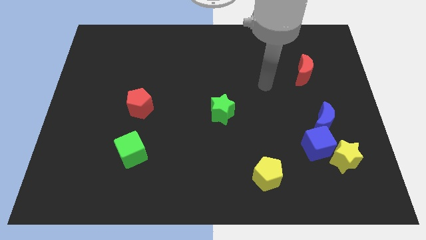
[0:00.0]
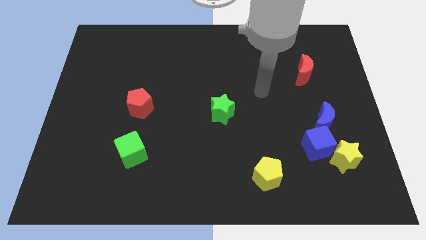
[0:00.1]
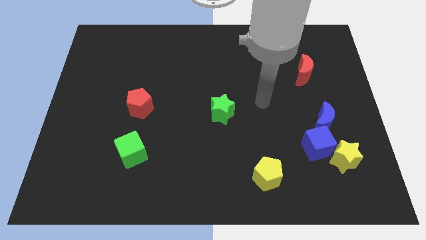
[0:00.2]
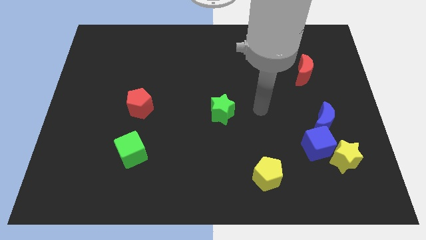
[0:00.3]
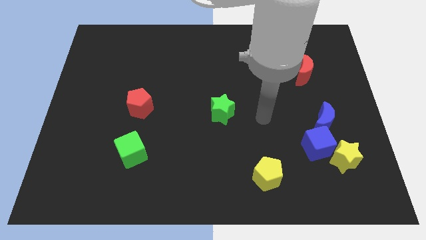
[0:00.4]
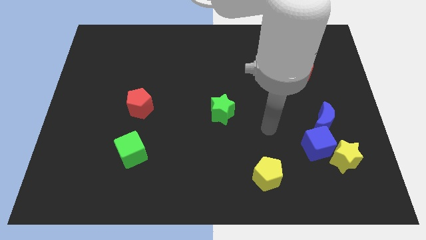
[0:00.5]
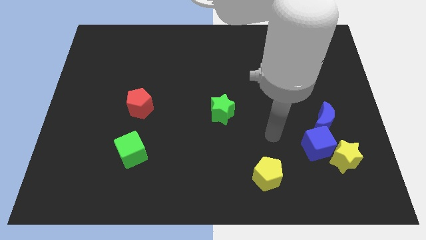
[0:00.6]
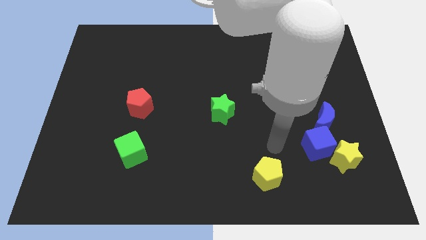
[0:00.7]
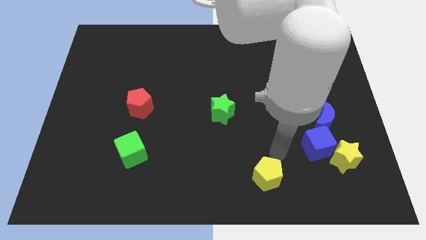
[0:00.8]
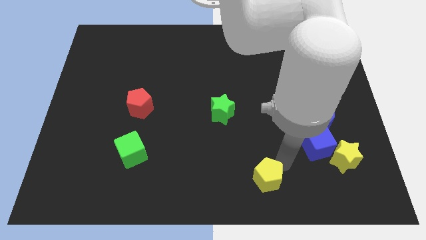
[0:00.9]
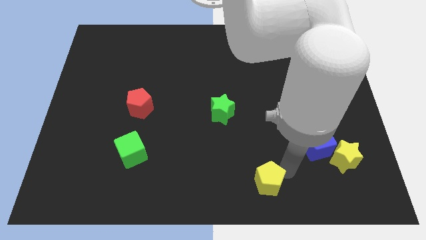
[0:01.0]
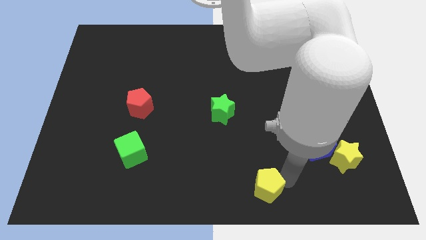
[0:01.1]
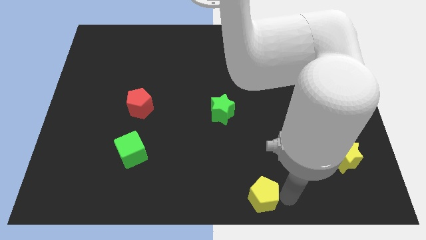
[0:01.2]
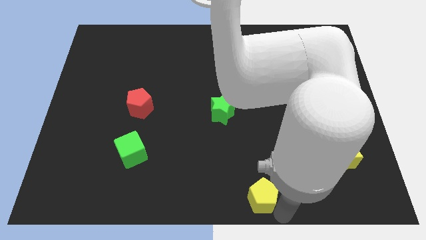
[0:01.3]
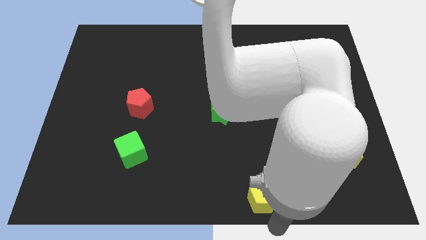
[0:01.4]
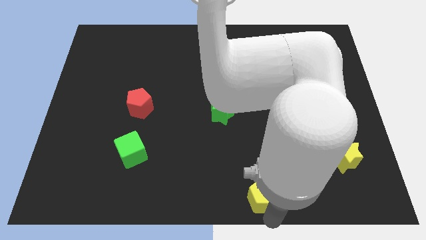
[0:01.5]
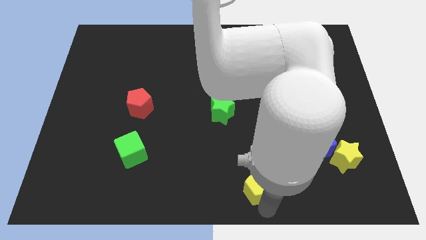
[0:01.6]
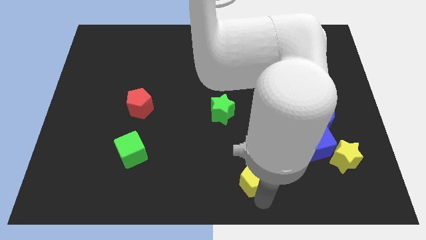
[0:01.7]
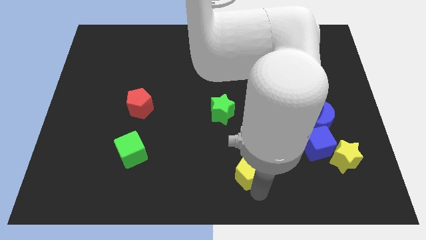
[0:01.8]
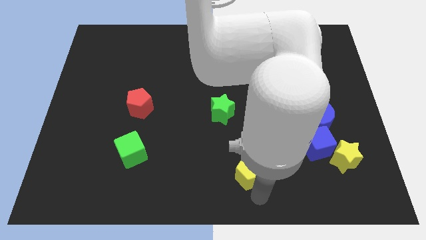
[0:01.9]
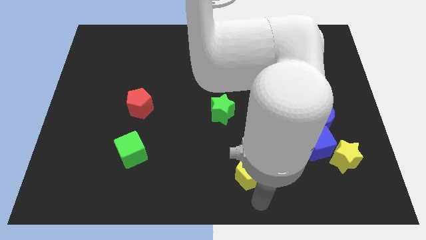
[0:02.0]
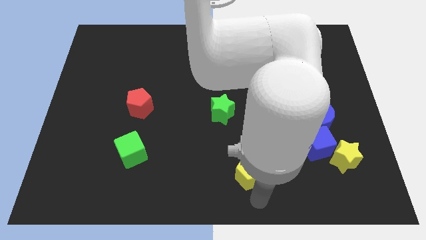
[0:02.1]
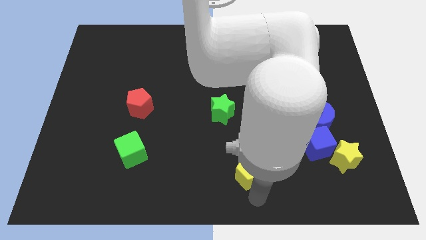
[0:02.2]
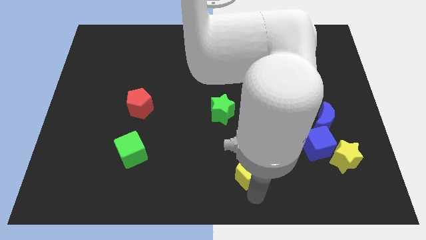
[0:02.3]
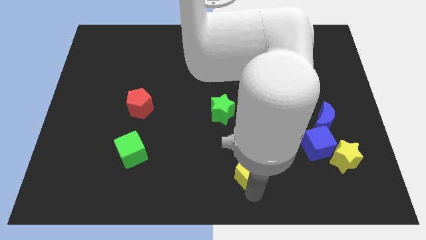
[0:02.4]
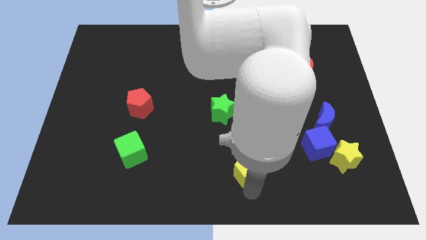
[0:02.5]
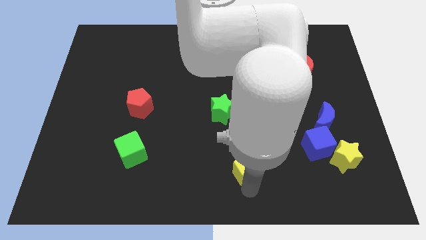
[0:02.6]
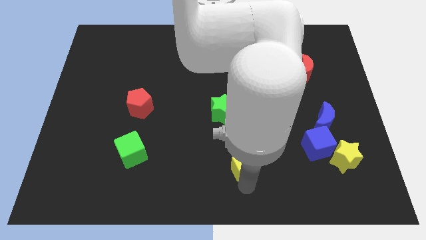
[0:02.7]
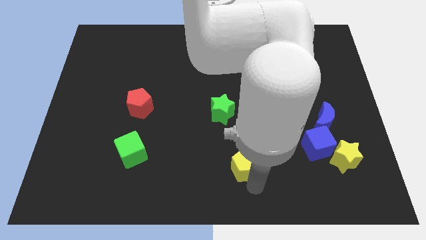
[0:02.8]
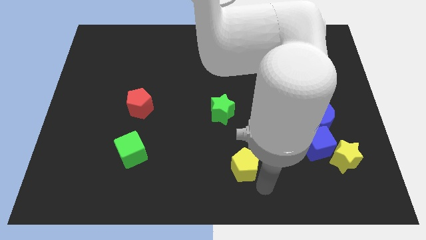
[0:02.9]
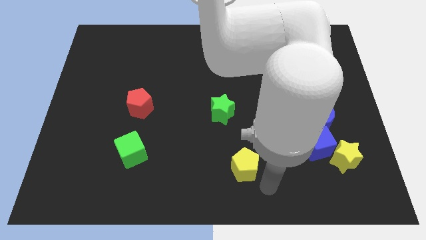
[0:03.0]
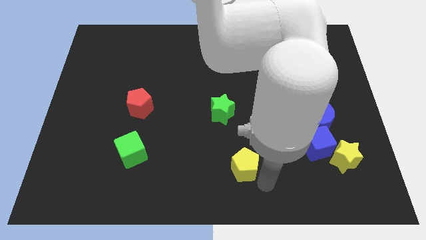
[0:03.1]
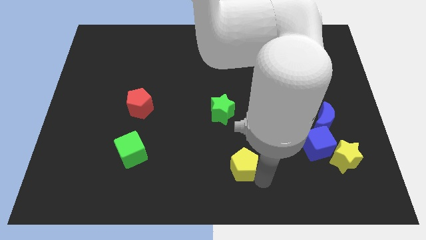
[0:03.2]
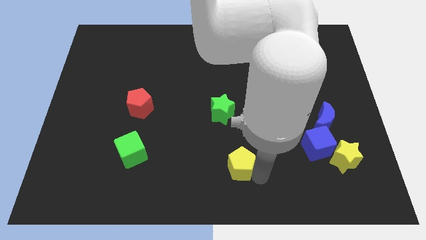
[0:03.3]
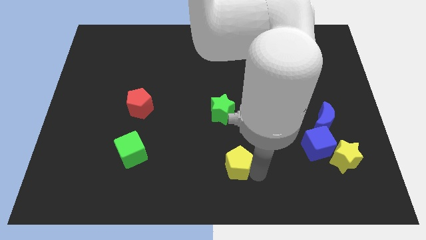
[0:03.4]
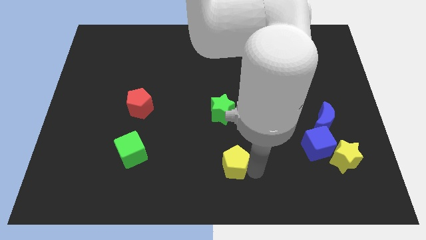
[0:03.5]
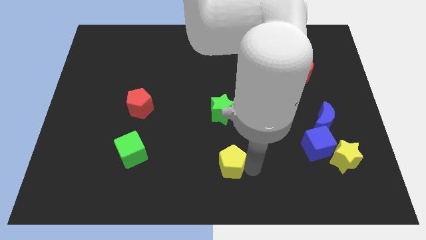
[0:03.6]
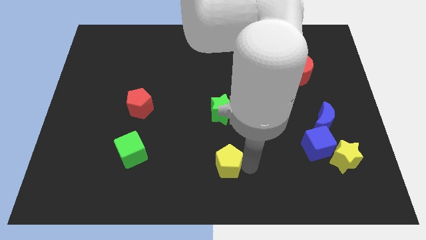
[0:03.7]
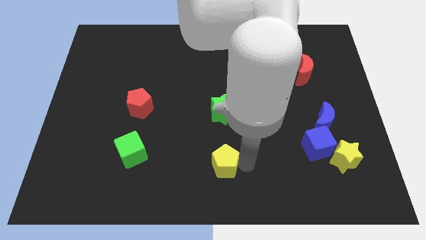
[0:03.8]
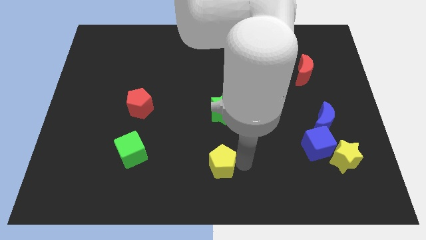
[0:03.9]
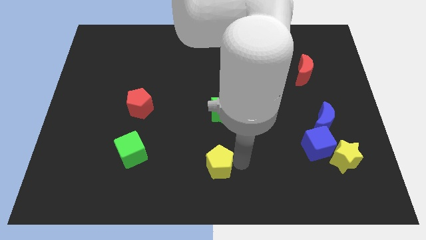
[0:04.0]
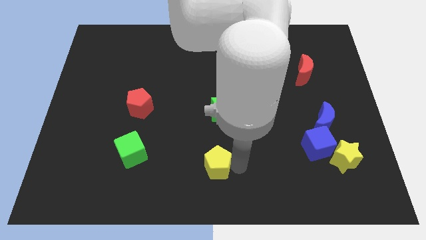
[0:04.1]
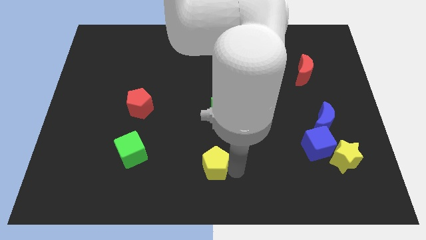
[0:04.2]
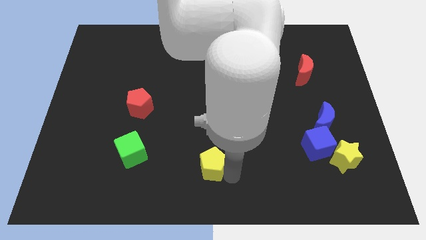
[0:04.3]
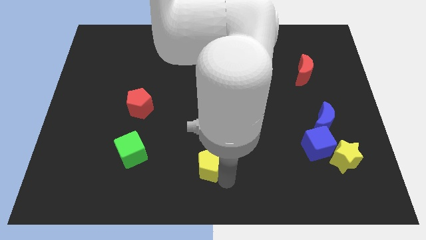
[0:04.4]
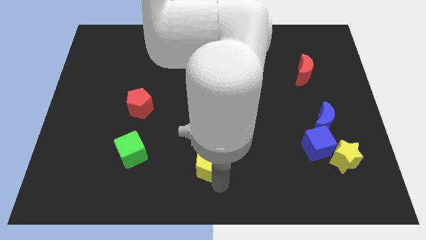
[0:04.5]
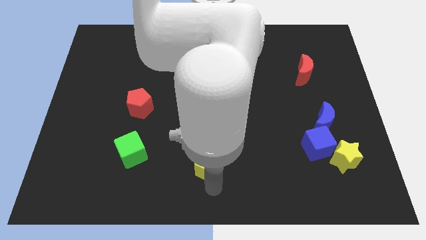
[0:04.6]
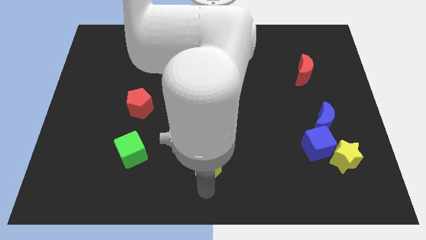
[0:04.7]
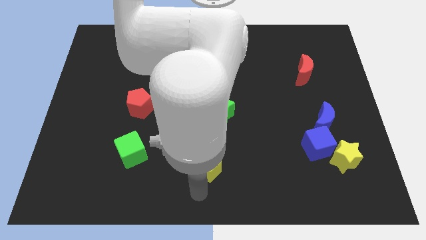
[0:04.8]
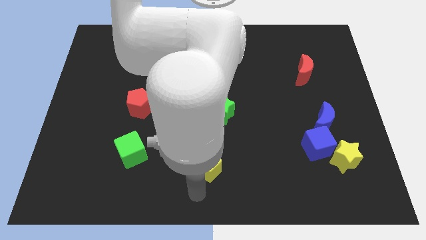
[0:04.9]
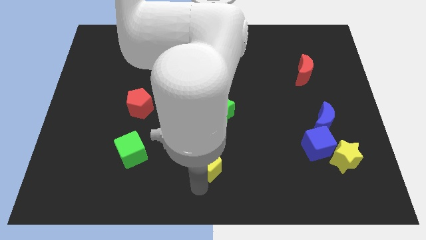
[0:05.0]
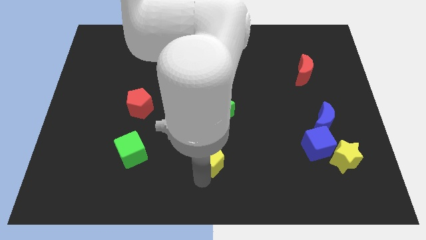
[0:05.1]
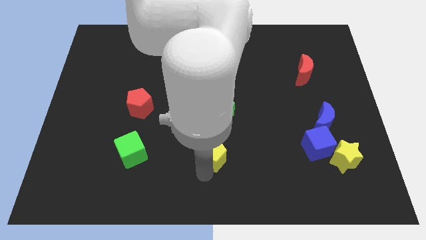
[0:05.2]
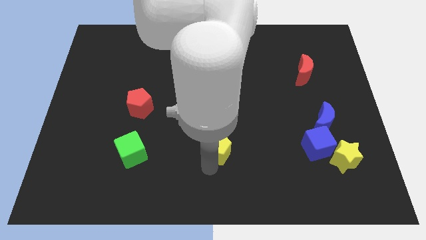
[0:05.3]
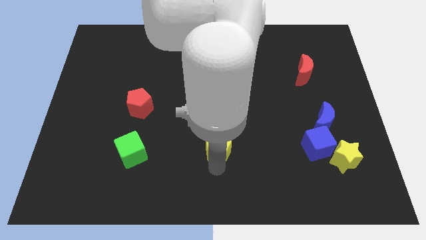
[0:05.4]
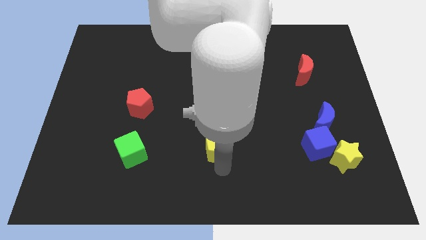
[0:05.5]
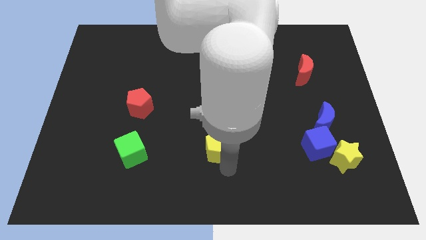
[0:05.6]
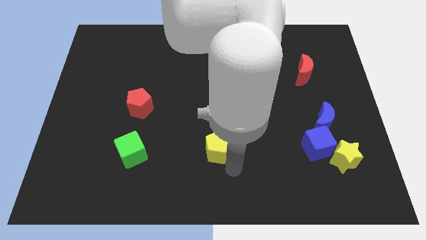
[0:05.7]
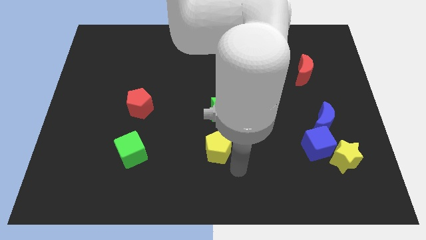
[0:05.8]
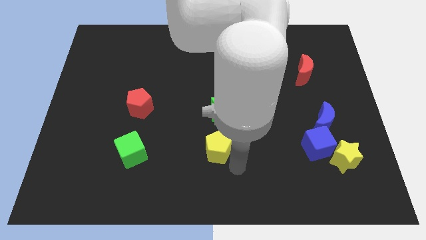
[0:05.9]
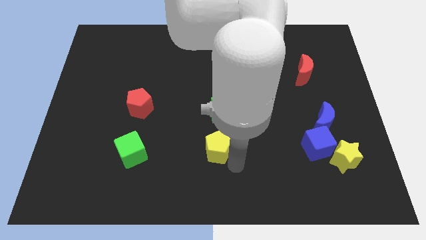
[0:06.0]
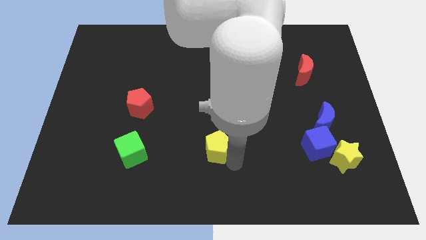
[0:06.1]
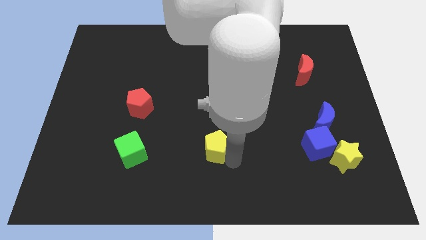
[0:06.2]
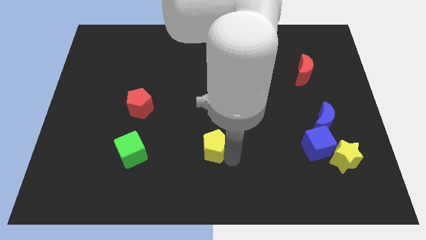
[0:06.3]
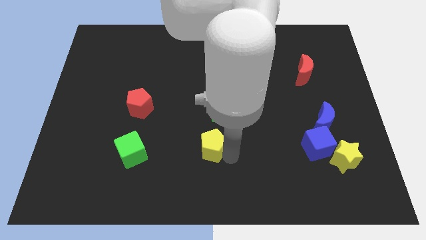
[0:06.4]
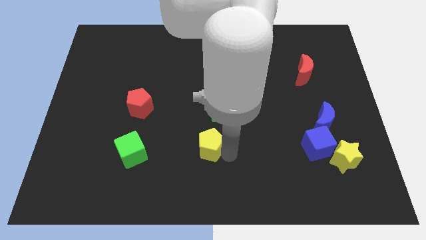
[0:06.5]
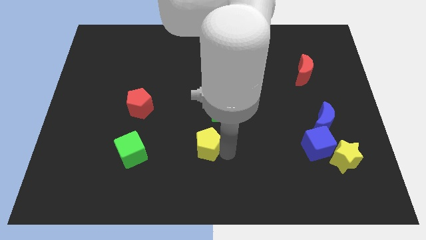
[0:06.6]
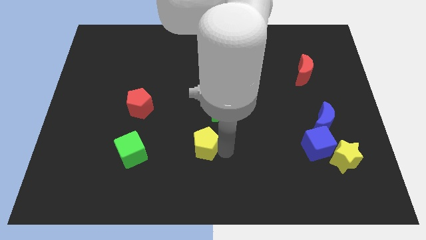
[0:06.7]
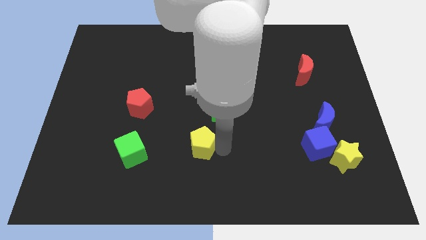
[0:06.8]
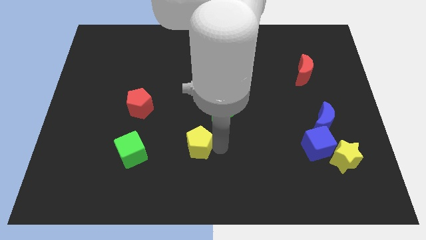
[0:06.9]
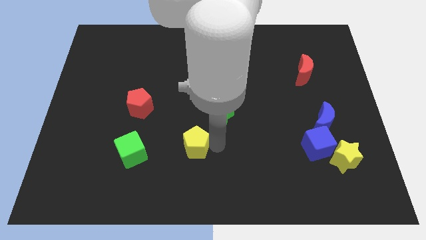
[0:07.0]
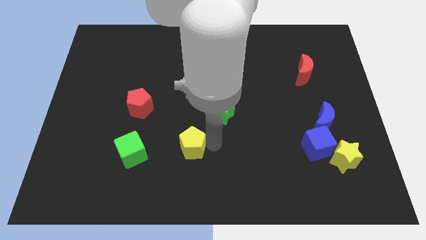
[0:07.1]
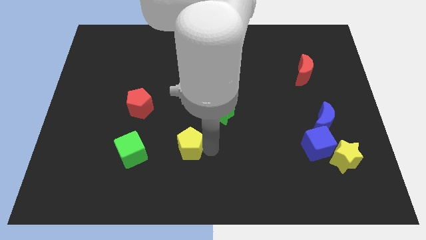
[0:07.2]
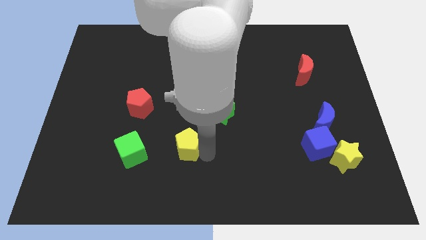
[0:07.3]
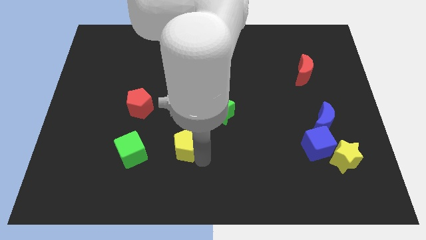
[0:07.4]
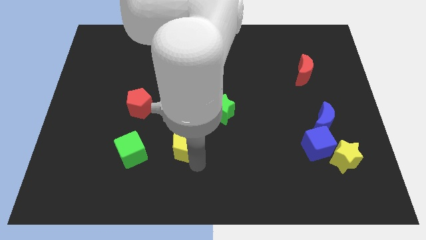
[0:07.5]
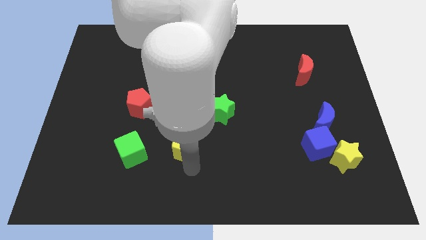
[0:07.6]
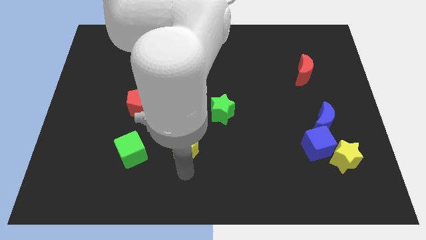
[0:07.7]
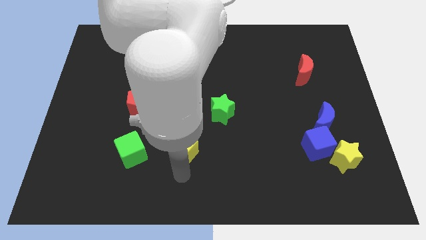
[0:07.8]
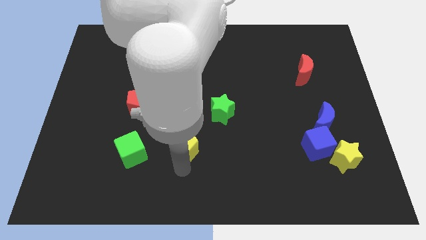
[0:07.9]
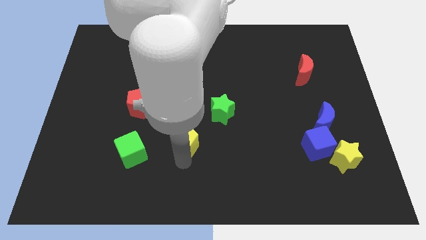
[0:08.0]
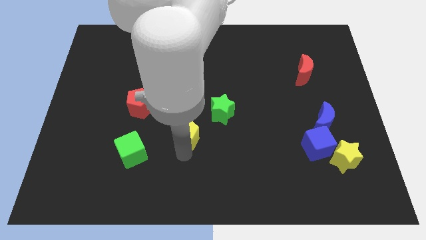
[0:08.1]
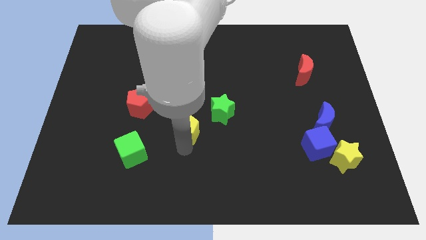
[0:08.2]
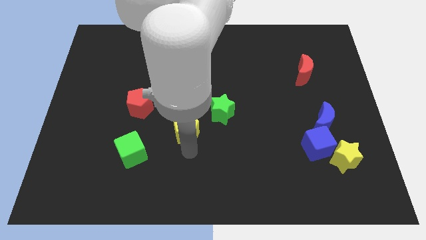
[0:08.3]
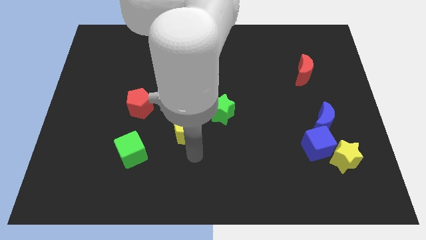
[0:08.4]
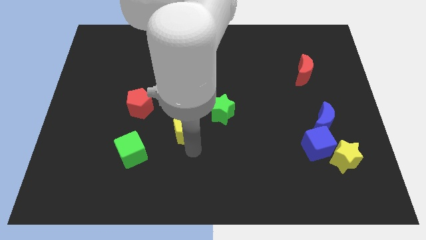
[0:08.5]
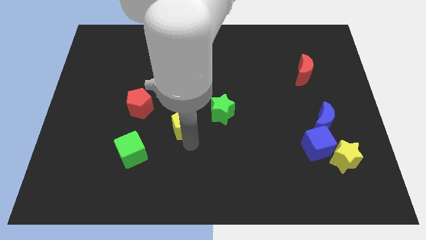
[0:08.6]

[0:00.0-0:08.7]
push the yellow pentagon diagonally upwards and left
